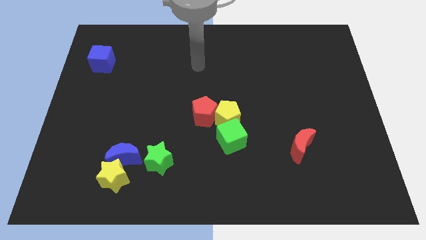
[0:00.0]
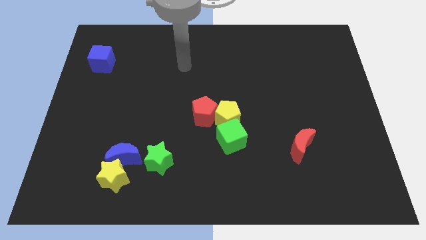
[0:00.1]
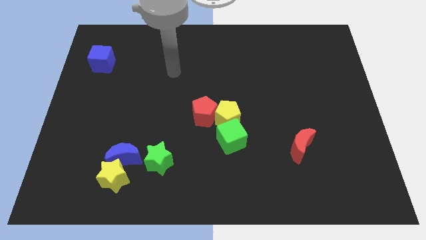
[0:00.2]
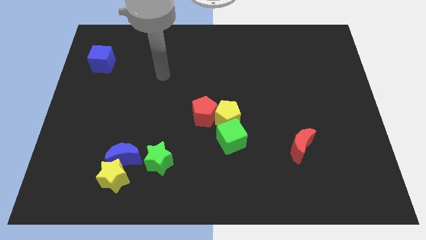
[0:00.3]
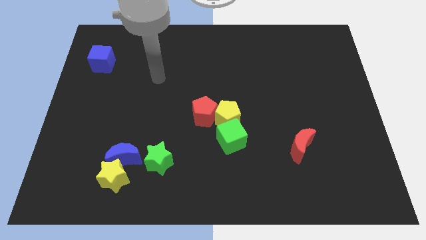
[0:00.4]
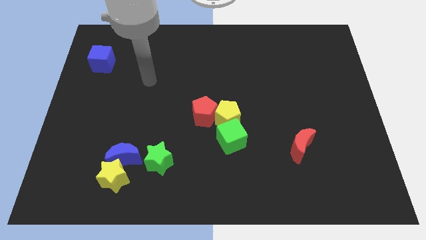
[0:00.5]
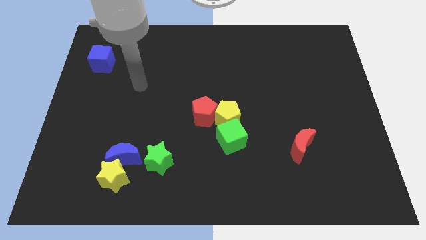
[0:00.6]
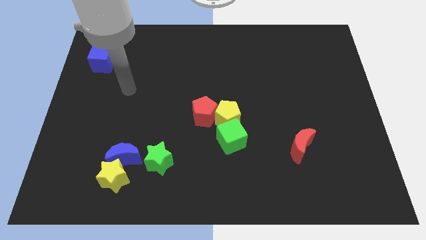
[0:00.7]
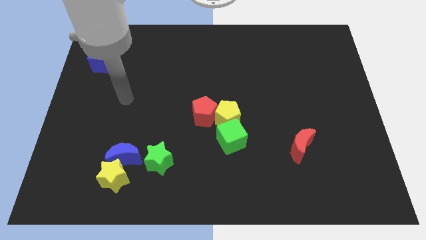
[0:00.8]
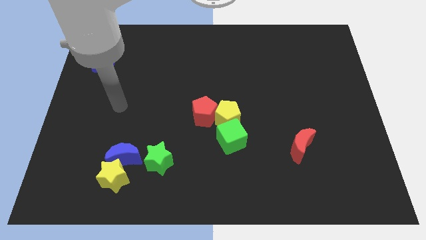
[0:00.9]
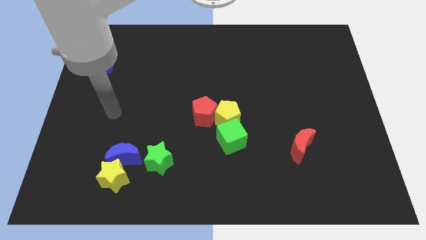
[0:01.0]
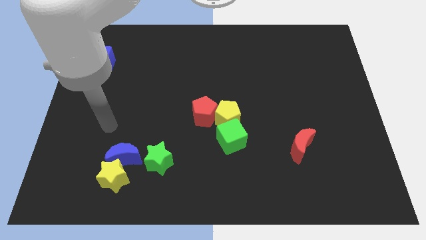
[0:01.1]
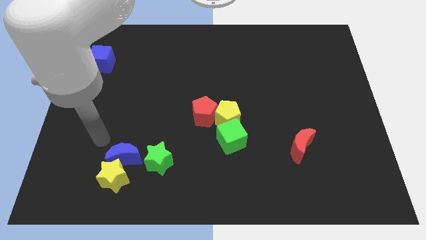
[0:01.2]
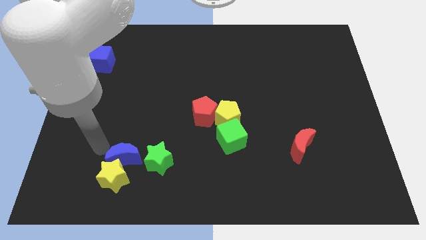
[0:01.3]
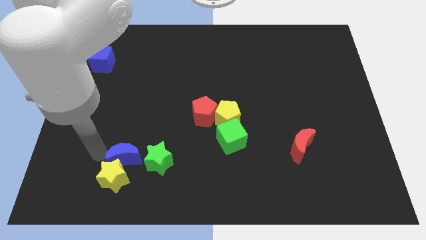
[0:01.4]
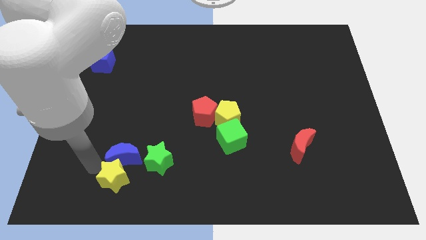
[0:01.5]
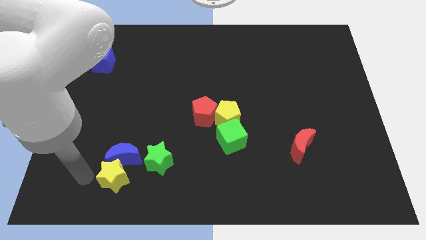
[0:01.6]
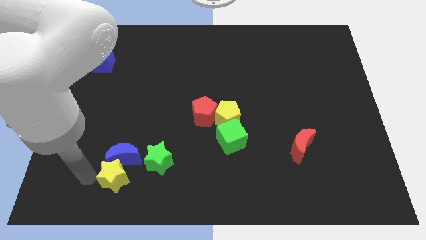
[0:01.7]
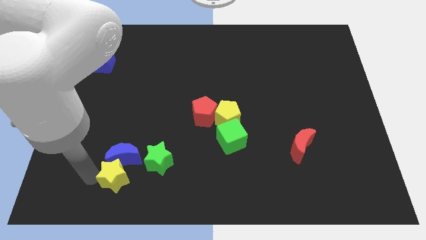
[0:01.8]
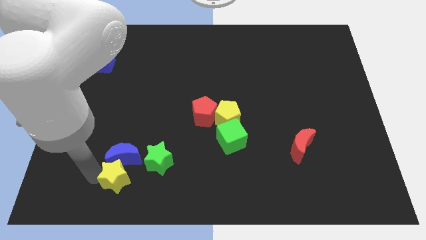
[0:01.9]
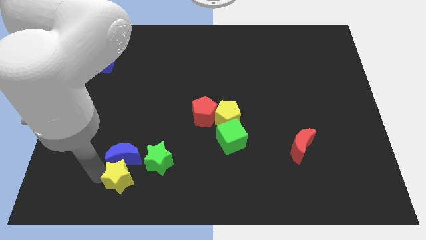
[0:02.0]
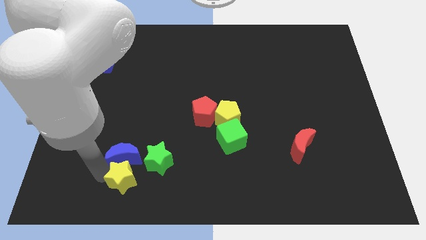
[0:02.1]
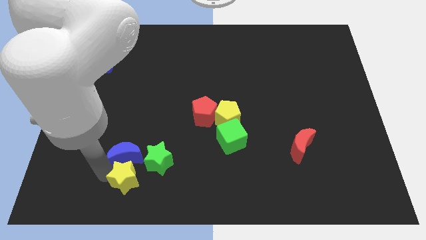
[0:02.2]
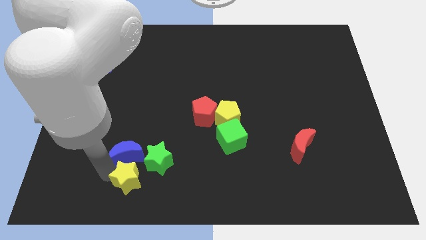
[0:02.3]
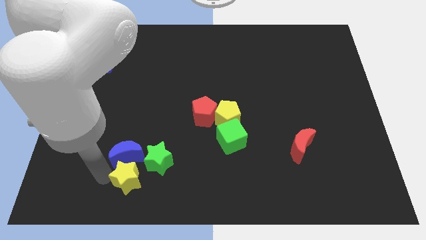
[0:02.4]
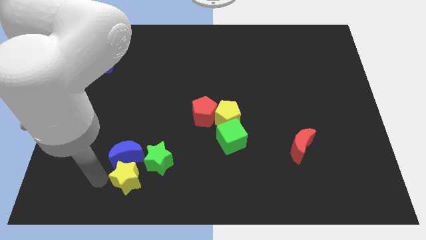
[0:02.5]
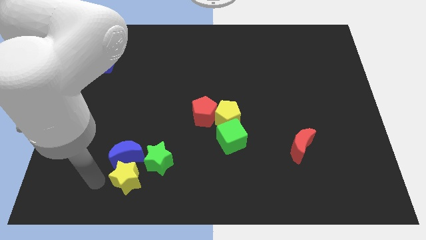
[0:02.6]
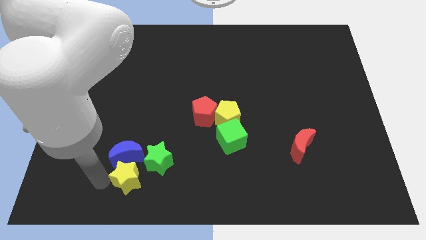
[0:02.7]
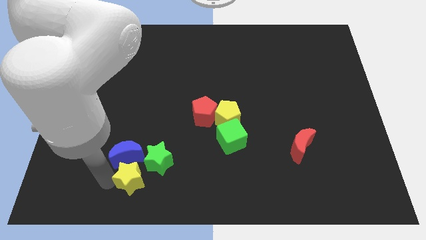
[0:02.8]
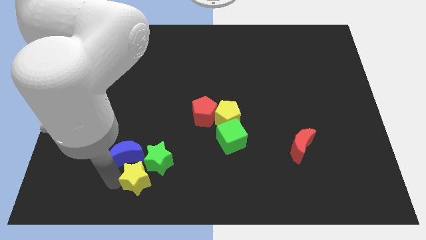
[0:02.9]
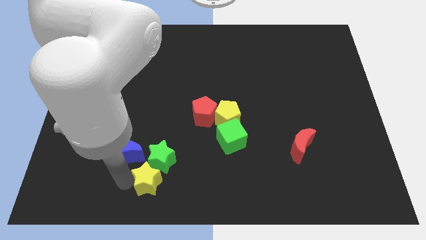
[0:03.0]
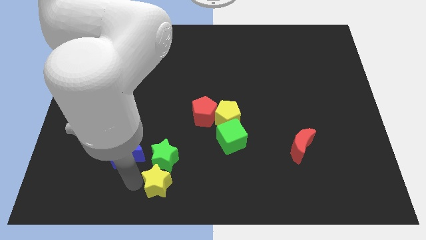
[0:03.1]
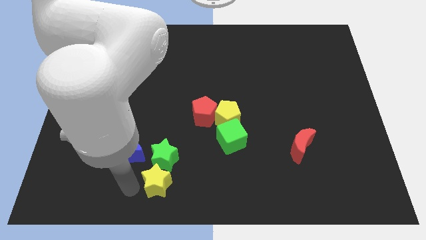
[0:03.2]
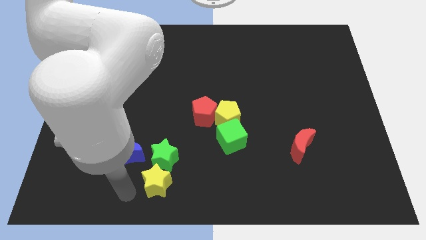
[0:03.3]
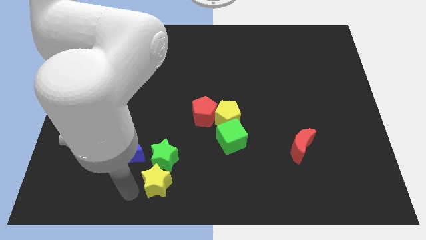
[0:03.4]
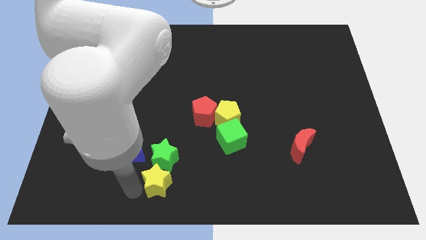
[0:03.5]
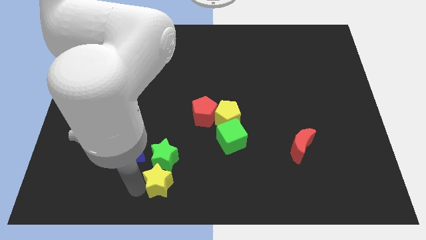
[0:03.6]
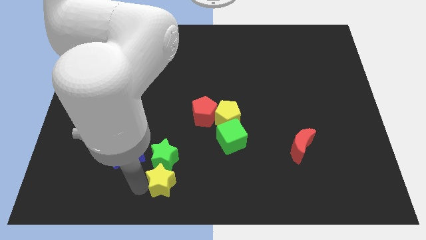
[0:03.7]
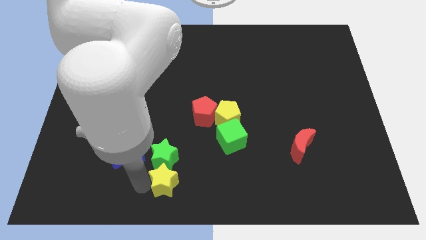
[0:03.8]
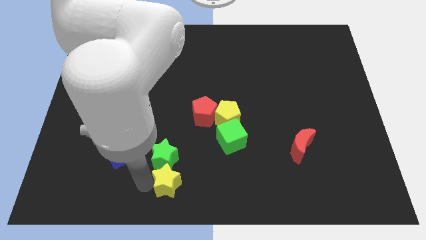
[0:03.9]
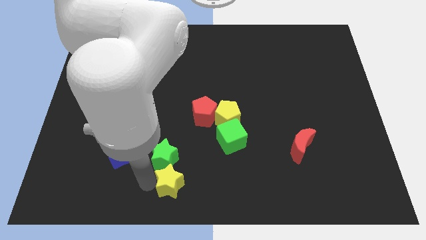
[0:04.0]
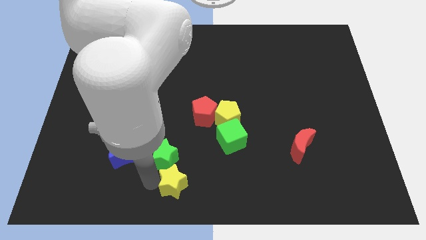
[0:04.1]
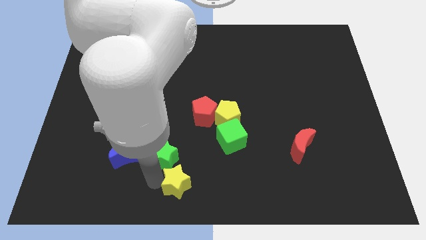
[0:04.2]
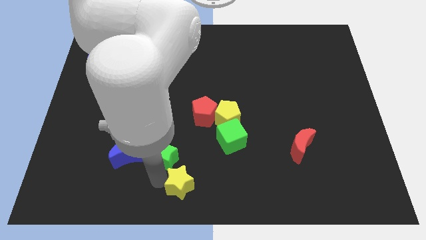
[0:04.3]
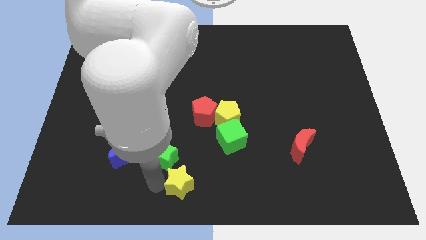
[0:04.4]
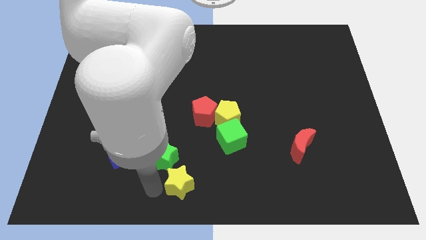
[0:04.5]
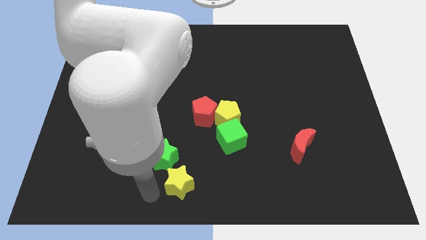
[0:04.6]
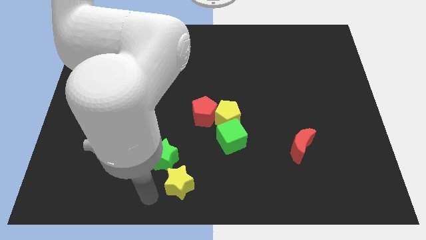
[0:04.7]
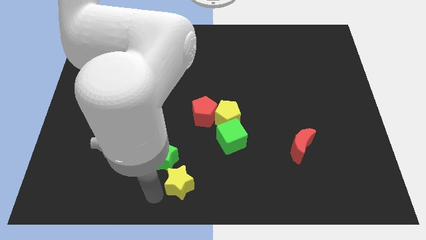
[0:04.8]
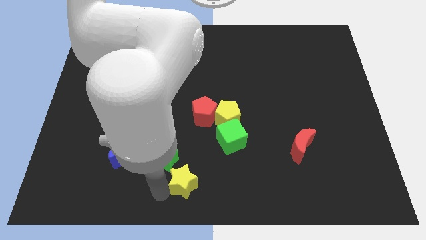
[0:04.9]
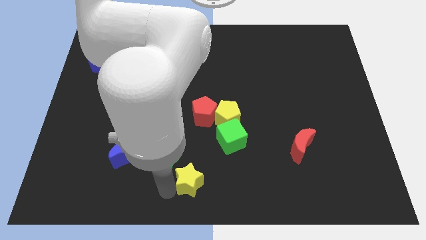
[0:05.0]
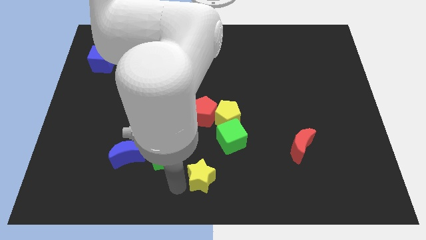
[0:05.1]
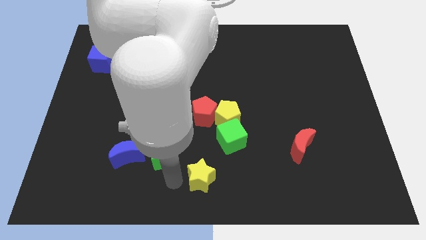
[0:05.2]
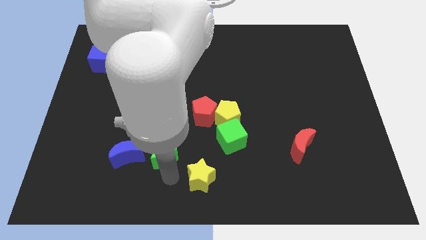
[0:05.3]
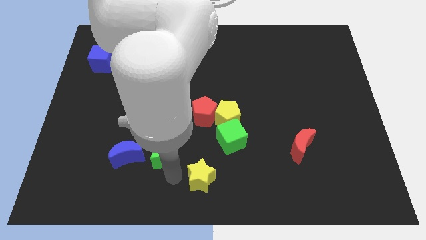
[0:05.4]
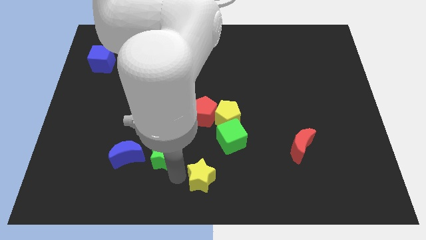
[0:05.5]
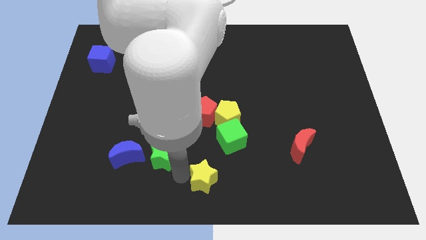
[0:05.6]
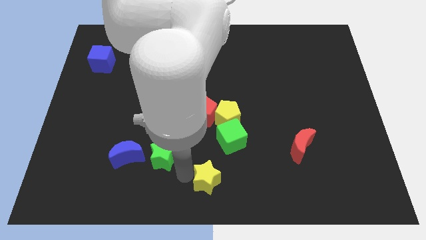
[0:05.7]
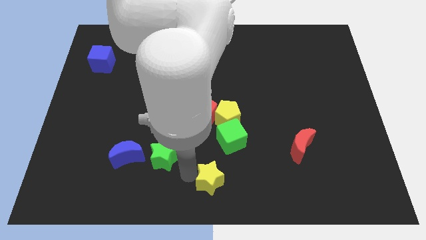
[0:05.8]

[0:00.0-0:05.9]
push the yellow star to the bottom of the green cube
